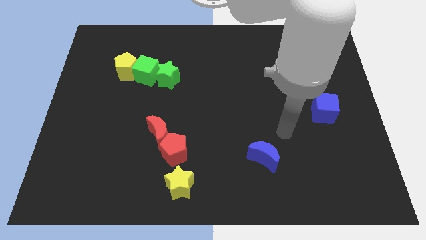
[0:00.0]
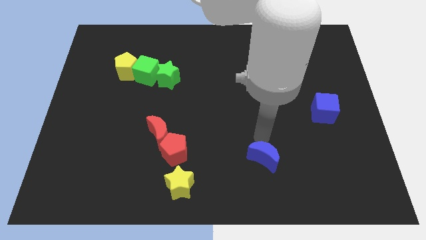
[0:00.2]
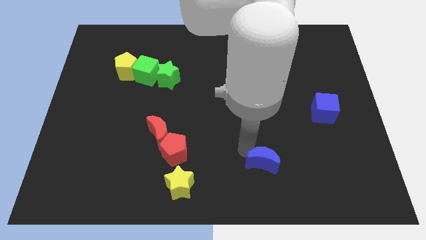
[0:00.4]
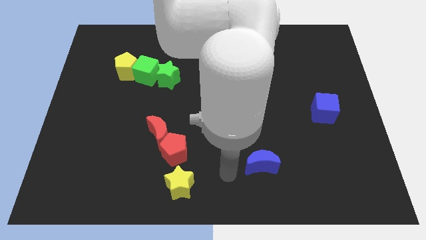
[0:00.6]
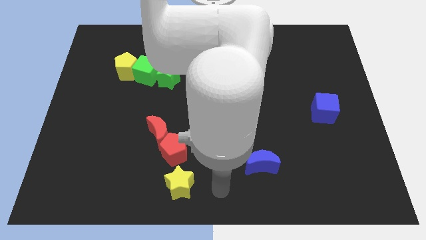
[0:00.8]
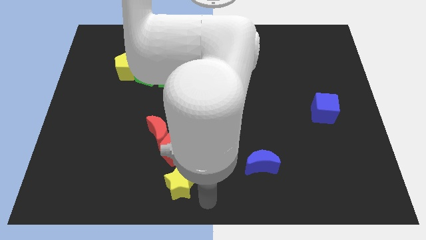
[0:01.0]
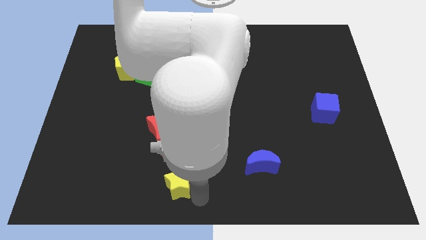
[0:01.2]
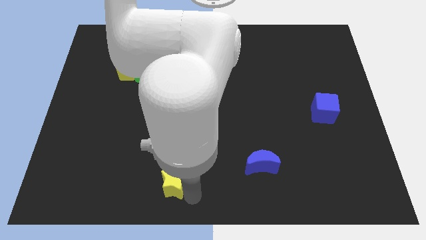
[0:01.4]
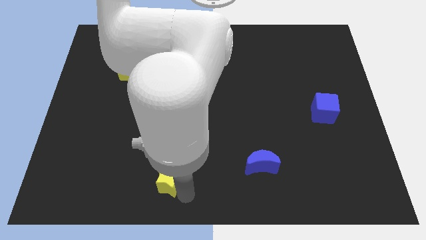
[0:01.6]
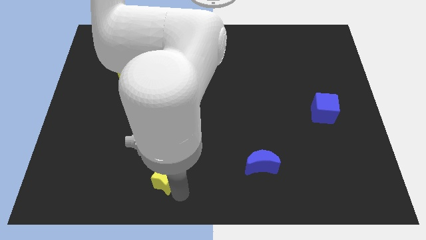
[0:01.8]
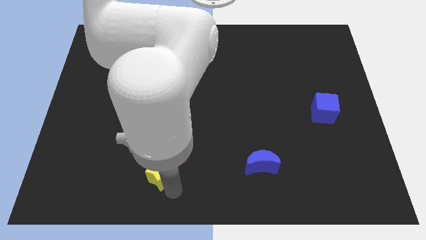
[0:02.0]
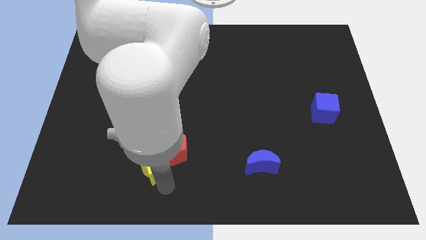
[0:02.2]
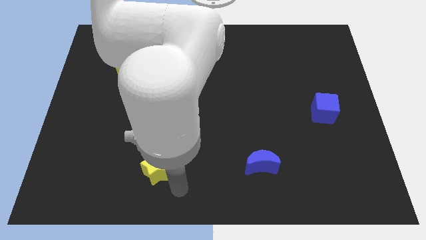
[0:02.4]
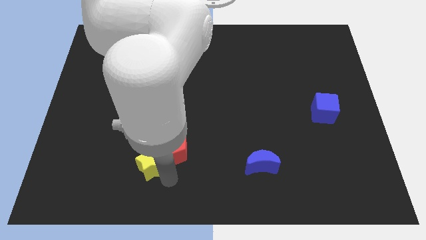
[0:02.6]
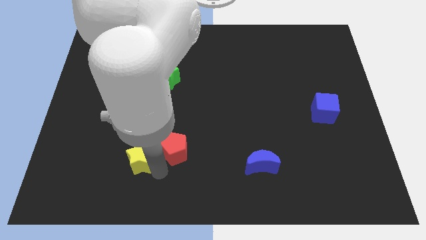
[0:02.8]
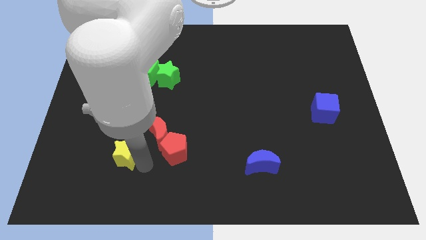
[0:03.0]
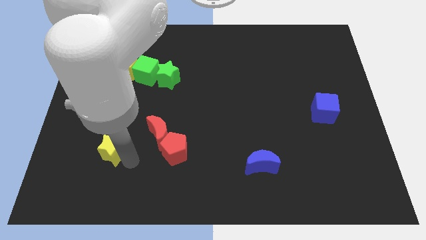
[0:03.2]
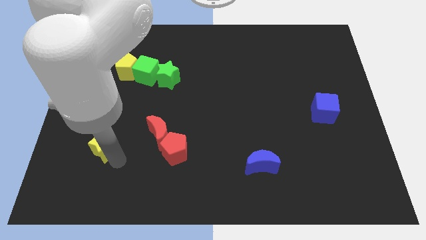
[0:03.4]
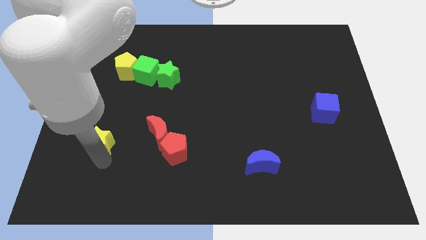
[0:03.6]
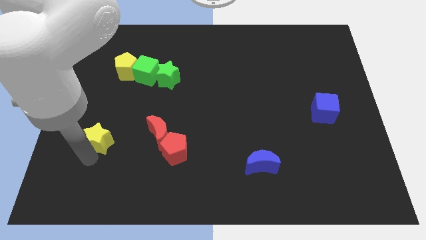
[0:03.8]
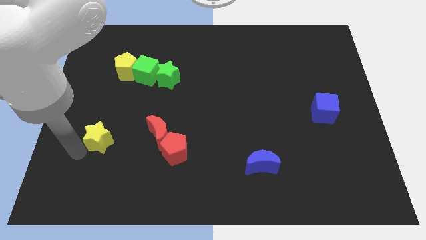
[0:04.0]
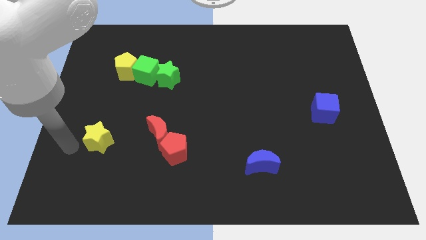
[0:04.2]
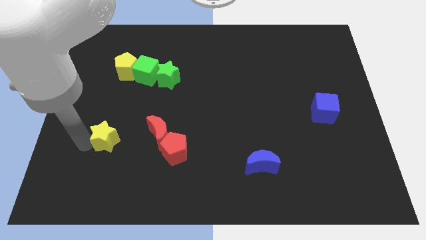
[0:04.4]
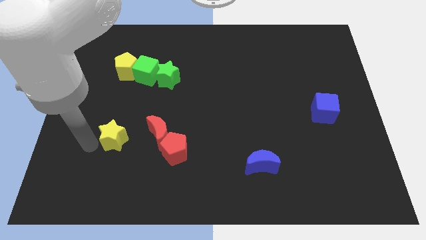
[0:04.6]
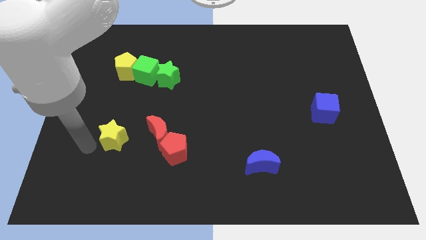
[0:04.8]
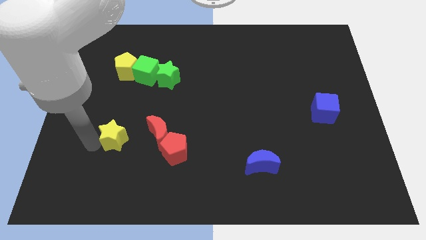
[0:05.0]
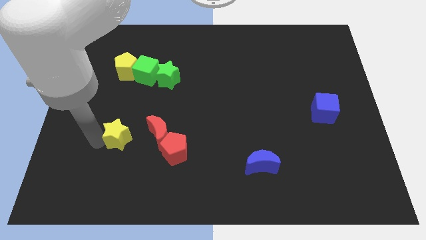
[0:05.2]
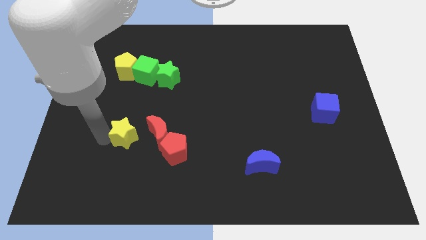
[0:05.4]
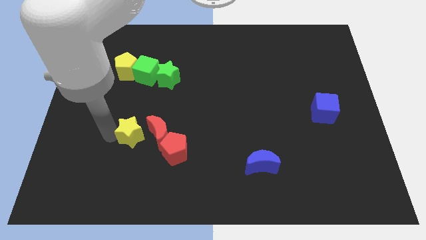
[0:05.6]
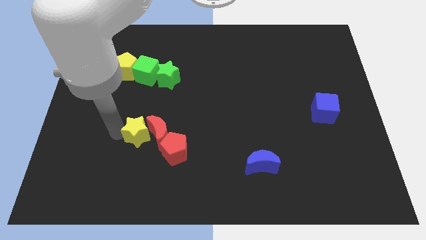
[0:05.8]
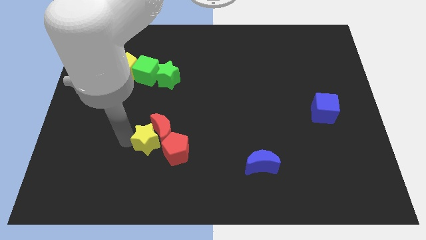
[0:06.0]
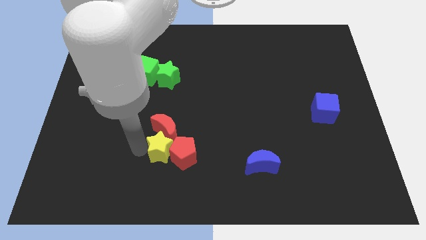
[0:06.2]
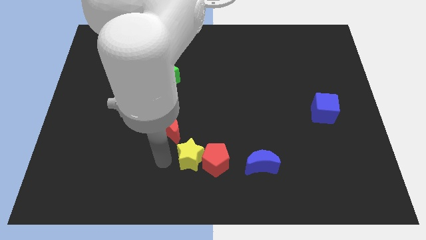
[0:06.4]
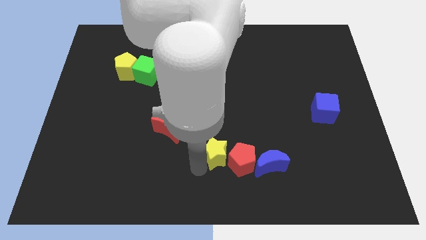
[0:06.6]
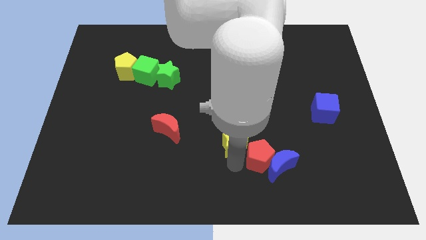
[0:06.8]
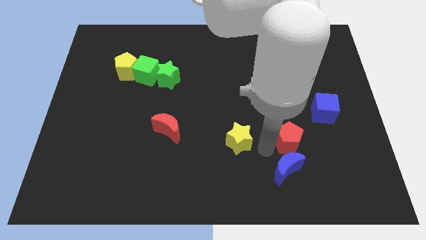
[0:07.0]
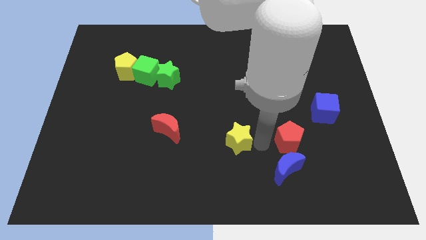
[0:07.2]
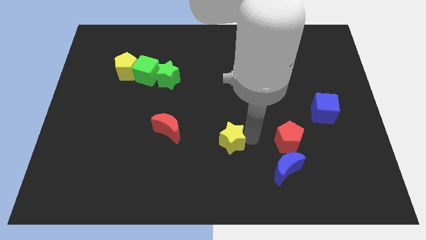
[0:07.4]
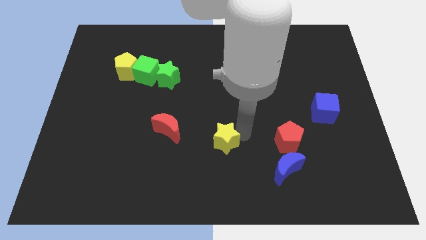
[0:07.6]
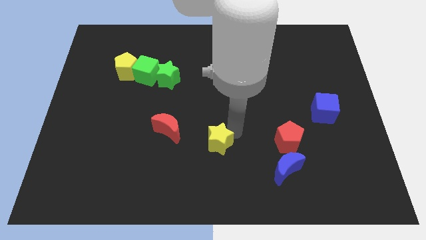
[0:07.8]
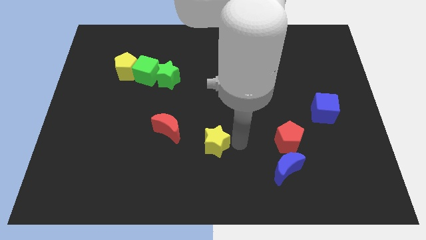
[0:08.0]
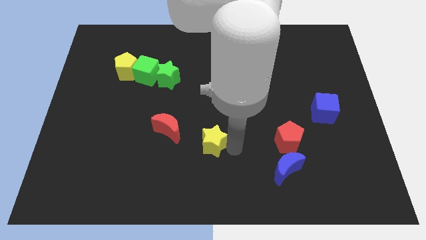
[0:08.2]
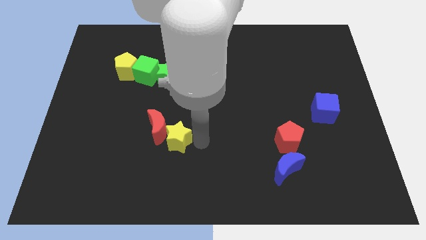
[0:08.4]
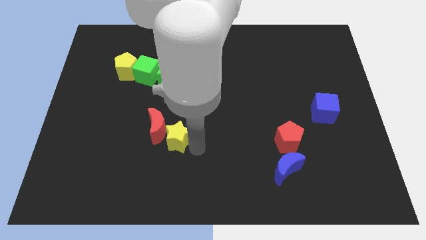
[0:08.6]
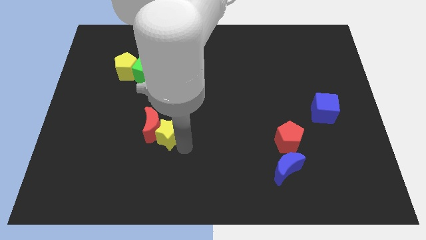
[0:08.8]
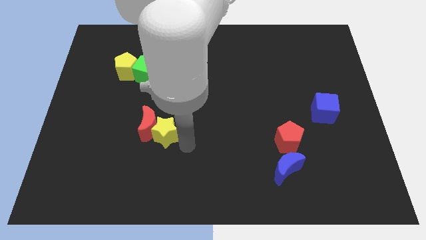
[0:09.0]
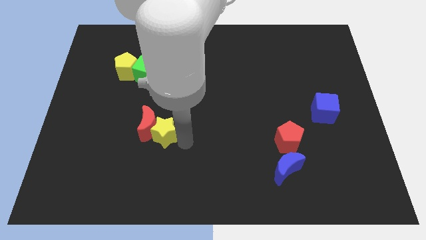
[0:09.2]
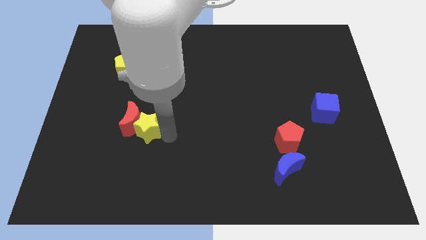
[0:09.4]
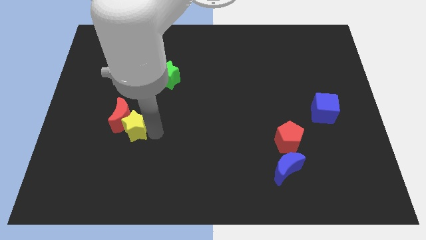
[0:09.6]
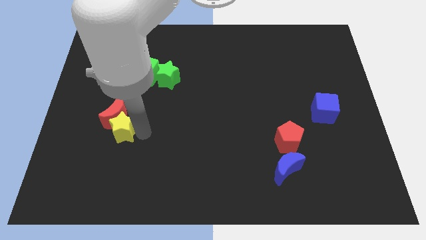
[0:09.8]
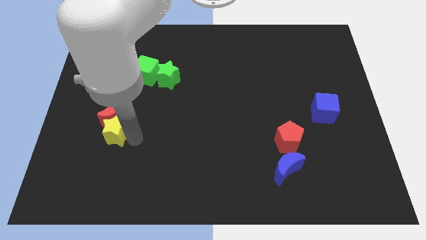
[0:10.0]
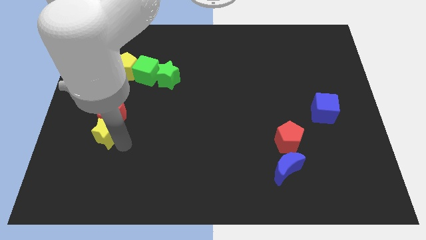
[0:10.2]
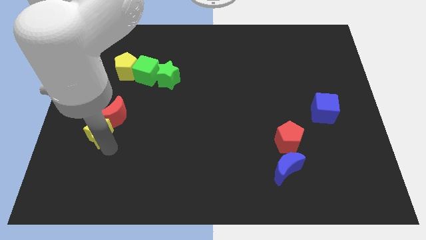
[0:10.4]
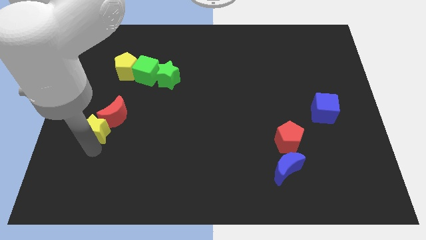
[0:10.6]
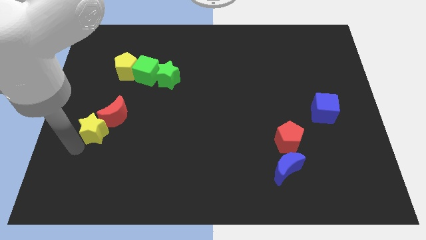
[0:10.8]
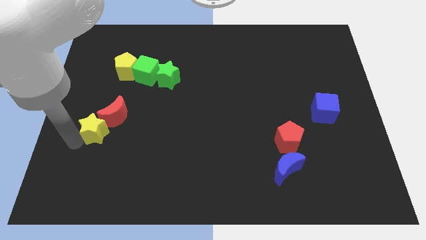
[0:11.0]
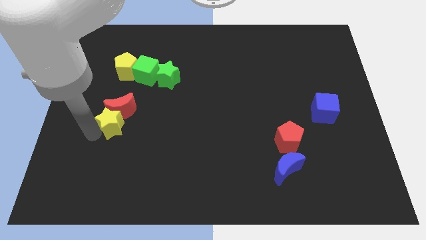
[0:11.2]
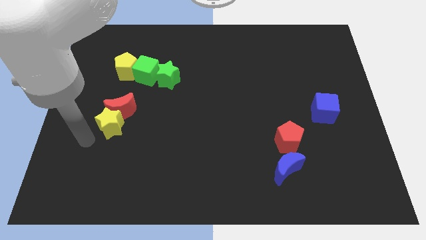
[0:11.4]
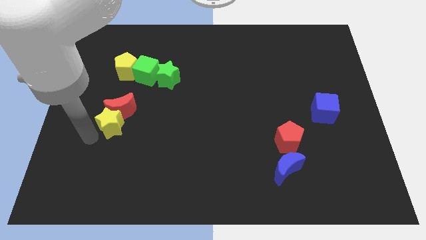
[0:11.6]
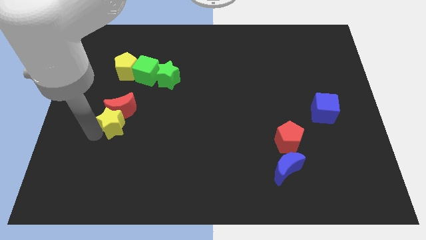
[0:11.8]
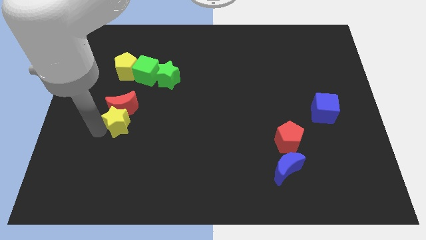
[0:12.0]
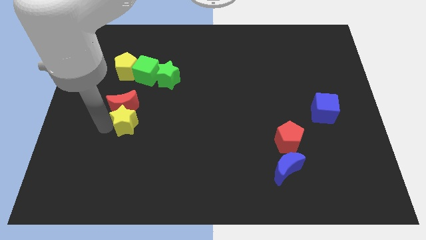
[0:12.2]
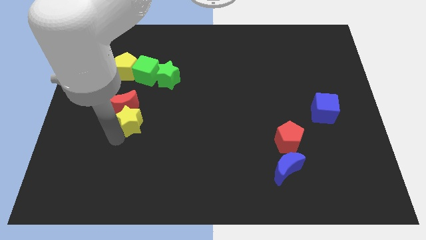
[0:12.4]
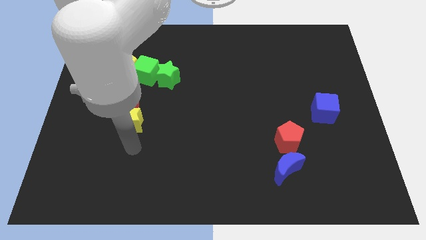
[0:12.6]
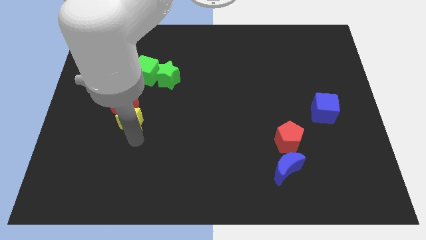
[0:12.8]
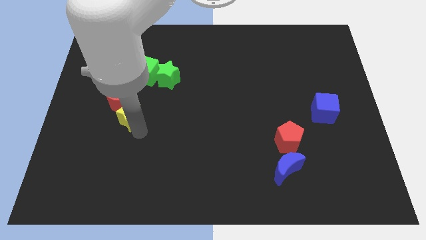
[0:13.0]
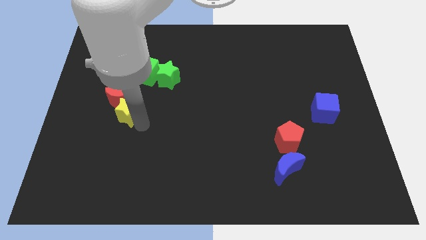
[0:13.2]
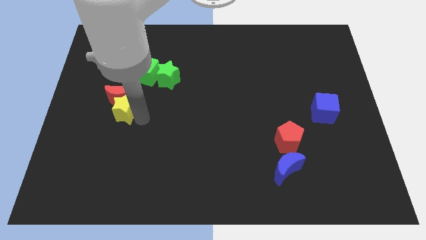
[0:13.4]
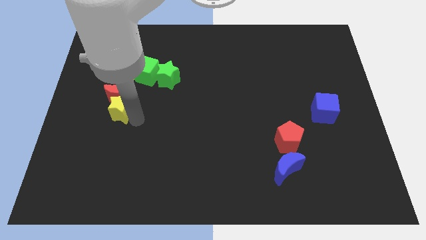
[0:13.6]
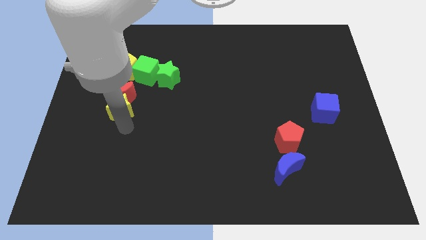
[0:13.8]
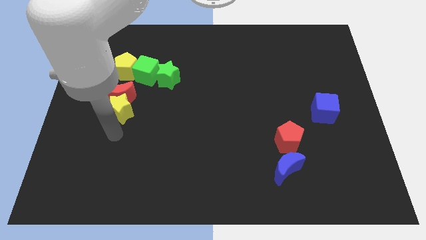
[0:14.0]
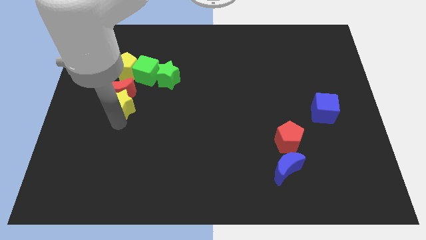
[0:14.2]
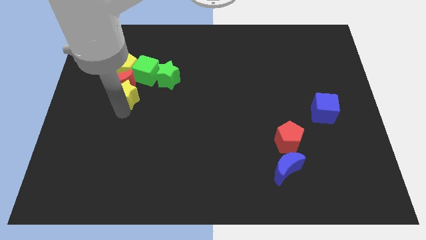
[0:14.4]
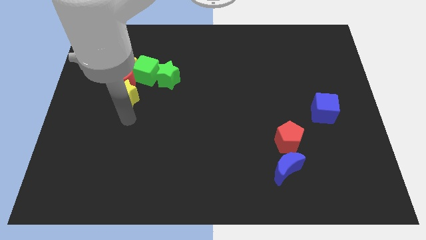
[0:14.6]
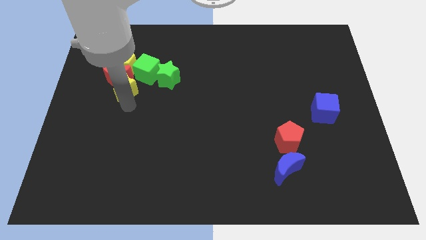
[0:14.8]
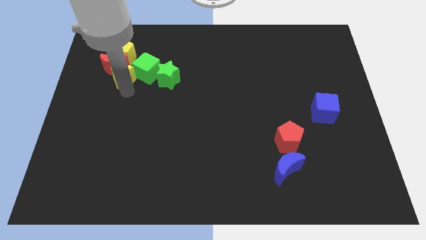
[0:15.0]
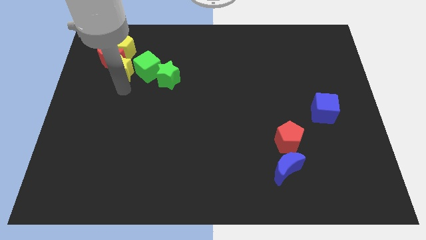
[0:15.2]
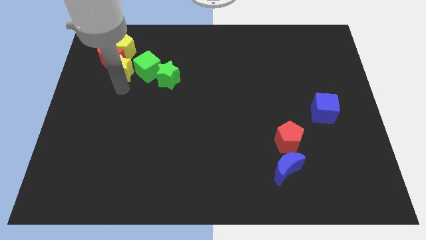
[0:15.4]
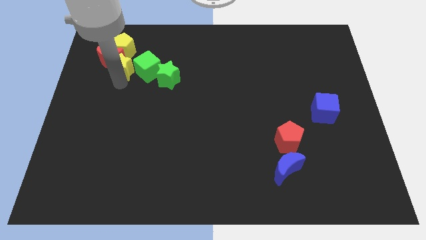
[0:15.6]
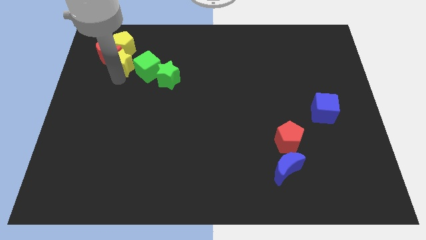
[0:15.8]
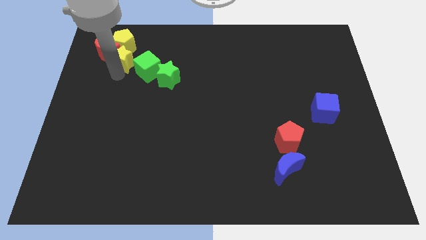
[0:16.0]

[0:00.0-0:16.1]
put the yellow star next to the yellow pentagon
